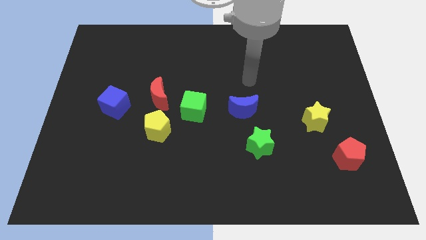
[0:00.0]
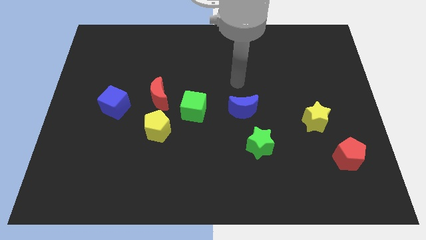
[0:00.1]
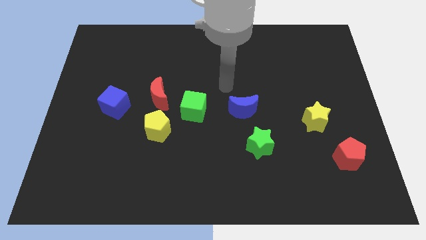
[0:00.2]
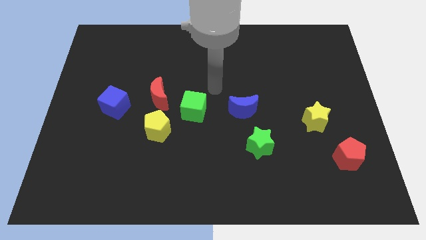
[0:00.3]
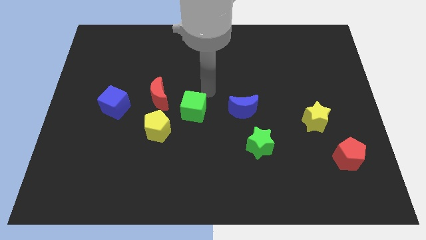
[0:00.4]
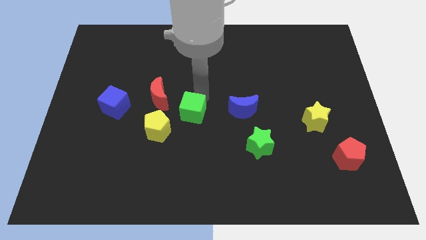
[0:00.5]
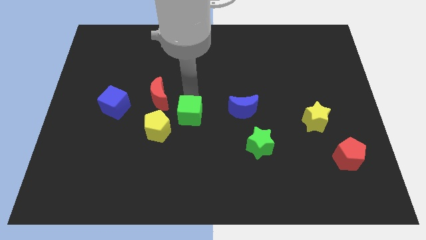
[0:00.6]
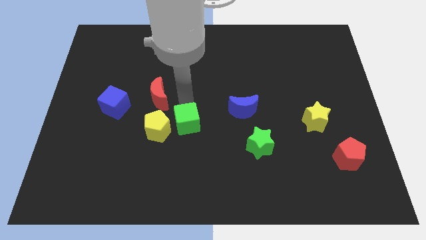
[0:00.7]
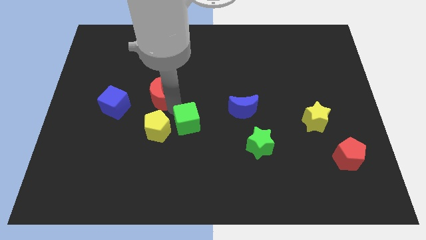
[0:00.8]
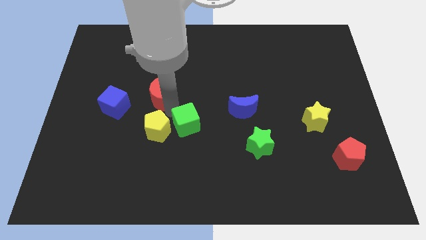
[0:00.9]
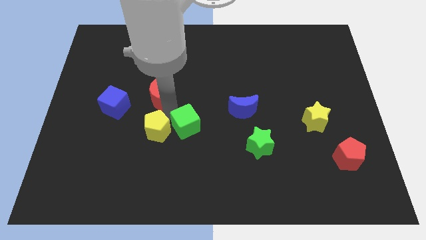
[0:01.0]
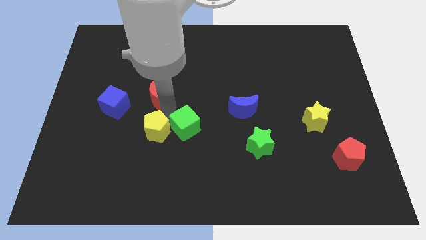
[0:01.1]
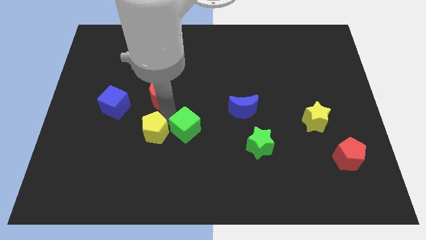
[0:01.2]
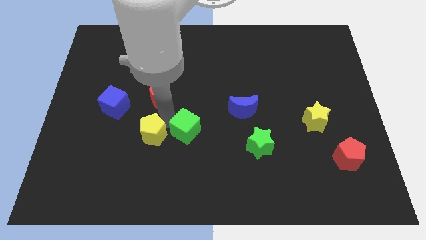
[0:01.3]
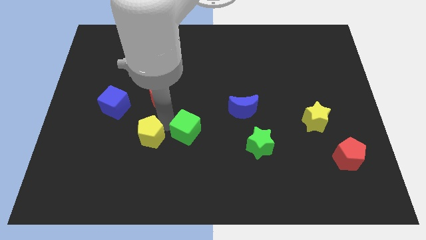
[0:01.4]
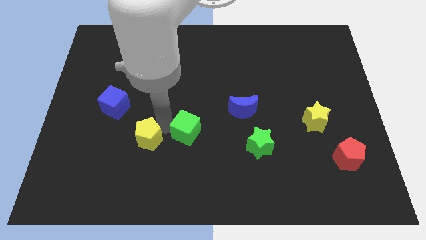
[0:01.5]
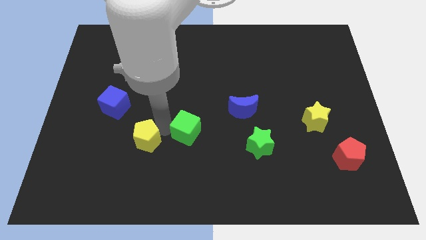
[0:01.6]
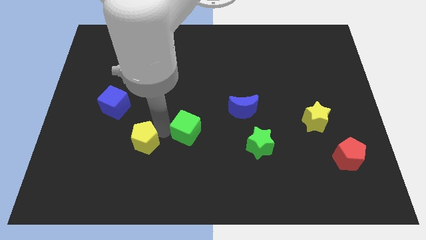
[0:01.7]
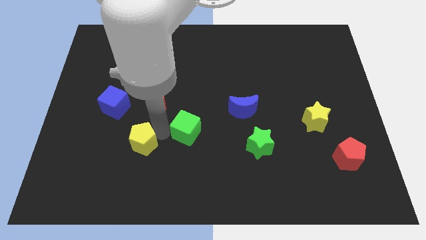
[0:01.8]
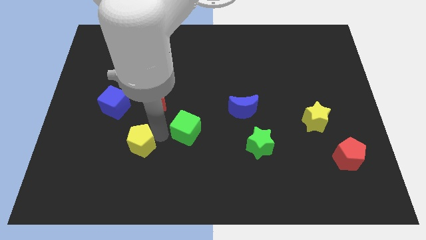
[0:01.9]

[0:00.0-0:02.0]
move the yellow pentagon away from the red moon and green cube

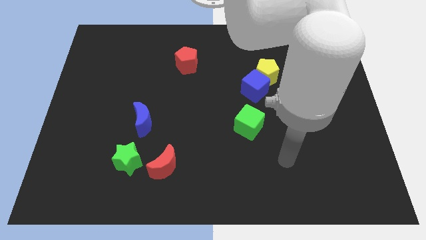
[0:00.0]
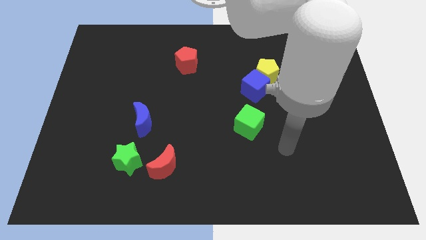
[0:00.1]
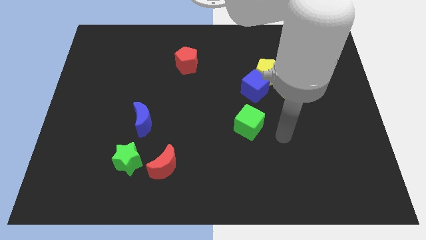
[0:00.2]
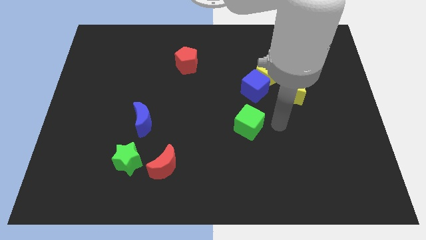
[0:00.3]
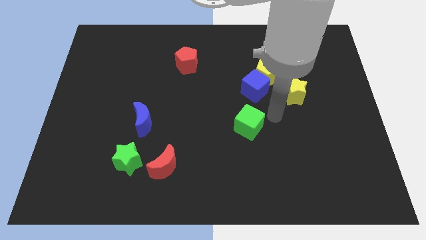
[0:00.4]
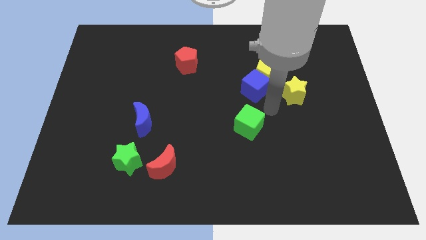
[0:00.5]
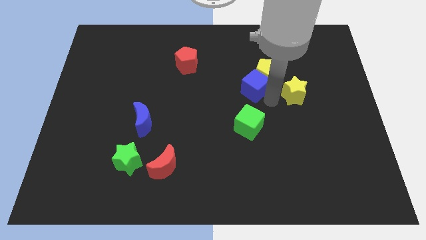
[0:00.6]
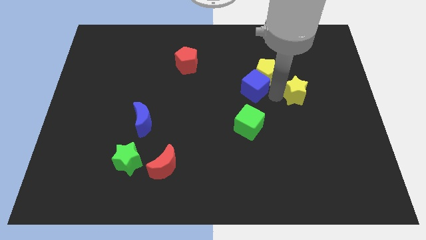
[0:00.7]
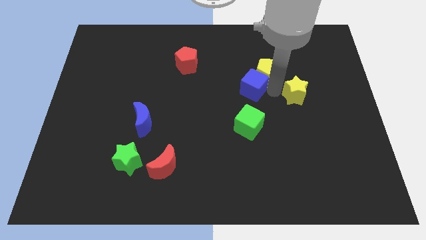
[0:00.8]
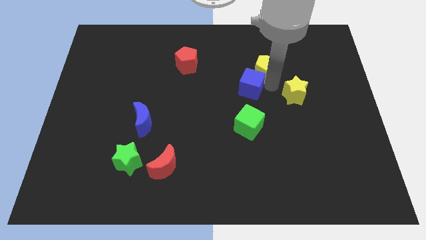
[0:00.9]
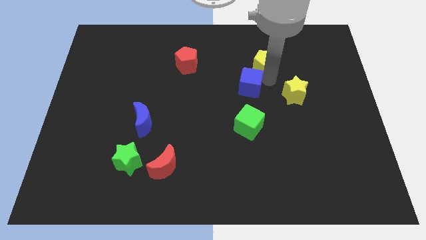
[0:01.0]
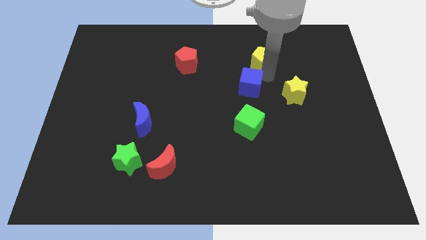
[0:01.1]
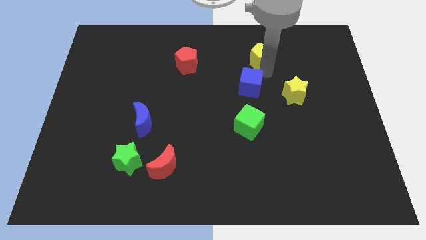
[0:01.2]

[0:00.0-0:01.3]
move the yellow pentagon away from the blue cube and yellow star

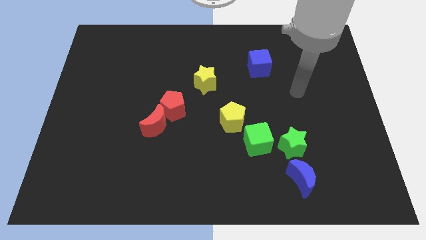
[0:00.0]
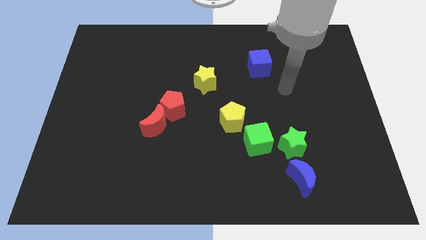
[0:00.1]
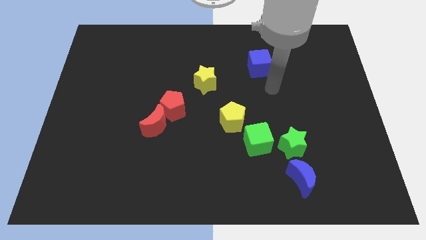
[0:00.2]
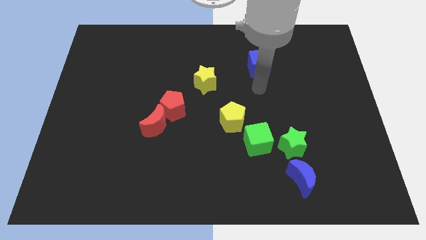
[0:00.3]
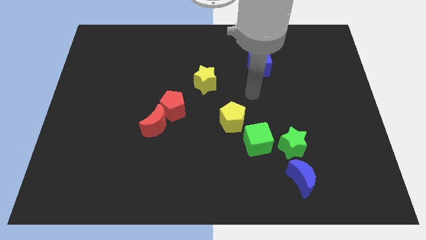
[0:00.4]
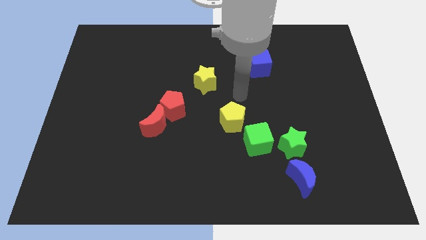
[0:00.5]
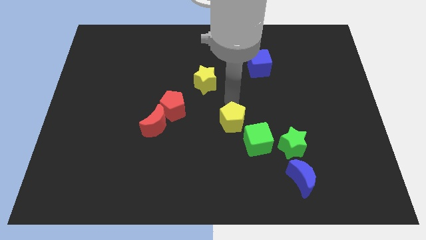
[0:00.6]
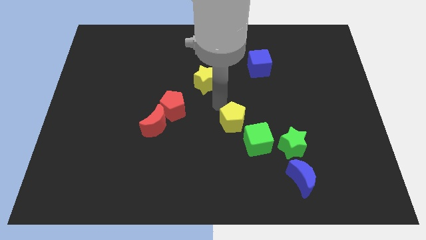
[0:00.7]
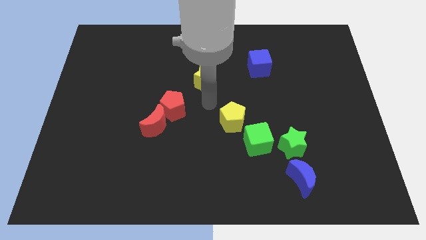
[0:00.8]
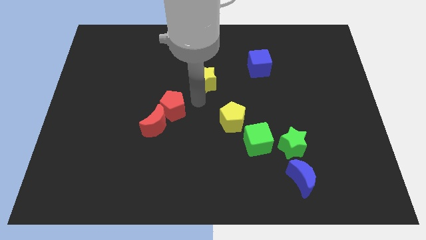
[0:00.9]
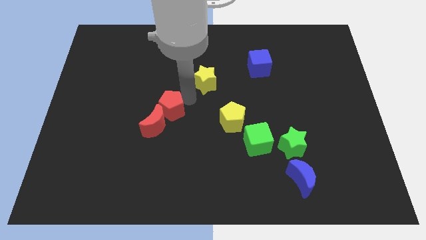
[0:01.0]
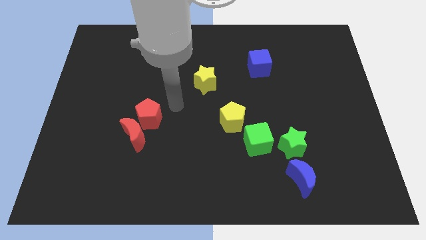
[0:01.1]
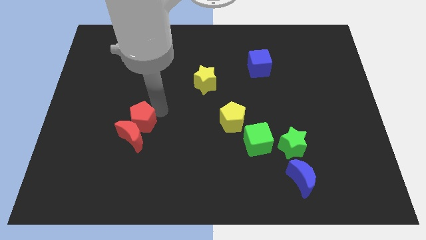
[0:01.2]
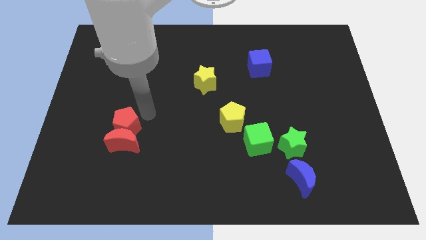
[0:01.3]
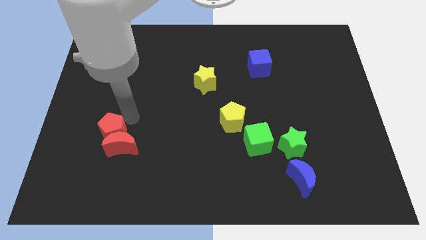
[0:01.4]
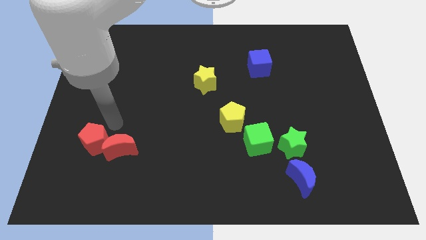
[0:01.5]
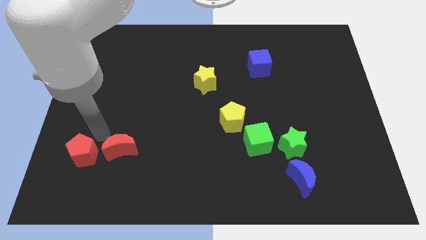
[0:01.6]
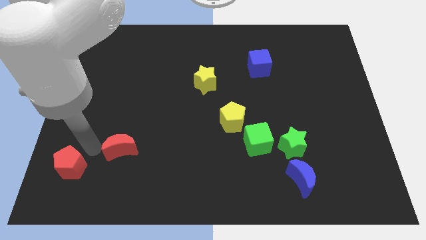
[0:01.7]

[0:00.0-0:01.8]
separate the red moon from the red pentagon

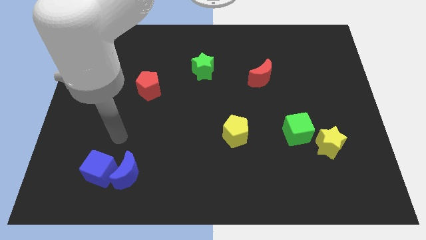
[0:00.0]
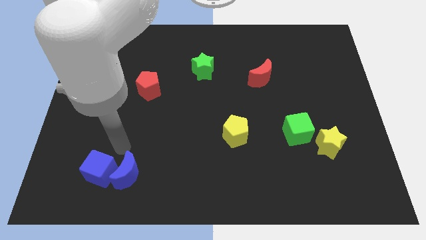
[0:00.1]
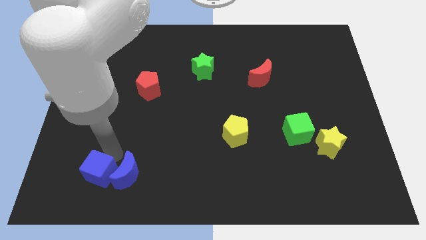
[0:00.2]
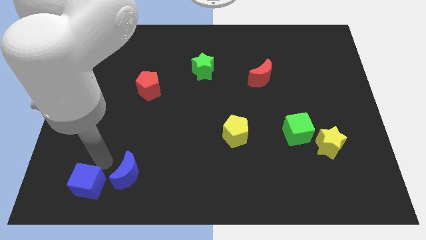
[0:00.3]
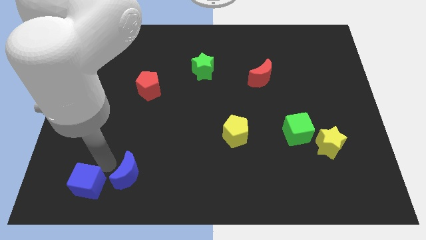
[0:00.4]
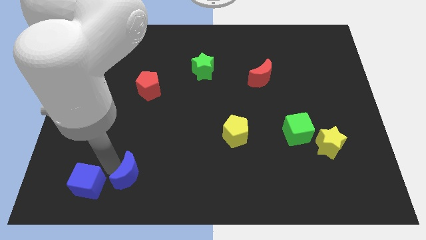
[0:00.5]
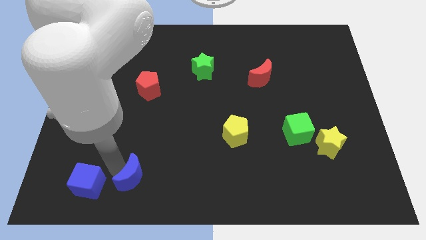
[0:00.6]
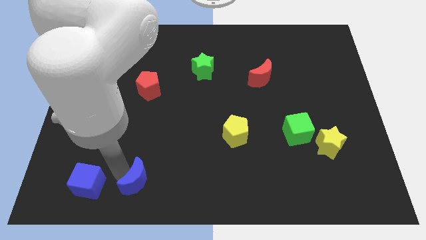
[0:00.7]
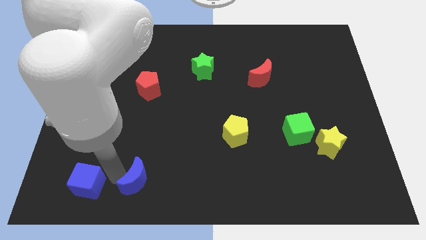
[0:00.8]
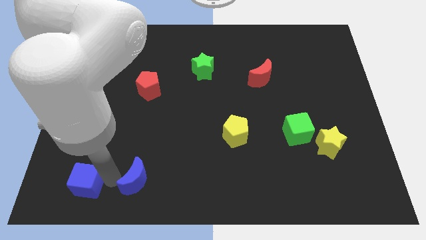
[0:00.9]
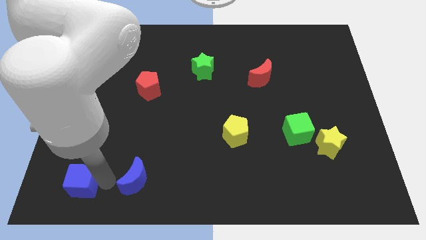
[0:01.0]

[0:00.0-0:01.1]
move the blue moon away from the blue cube

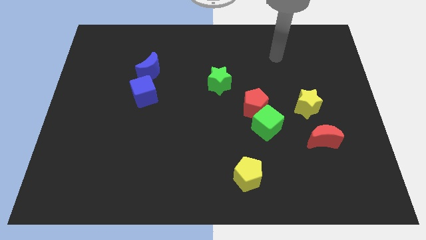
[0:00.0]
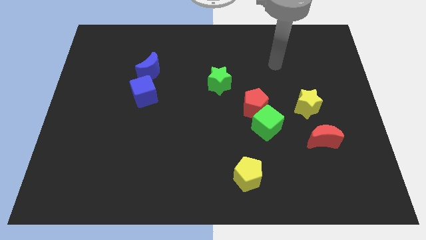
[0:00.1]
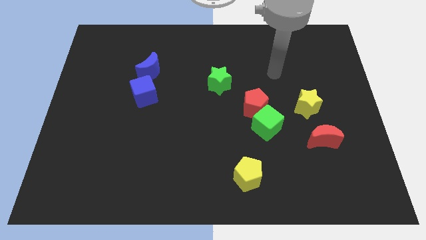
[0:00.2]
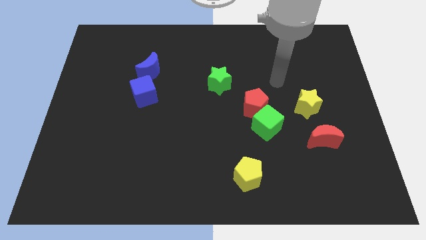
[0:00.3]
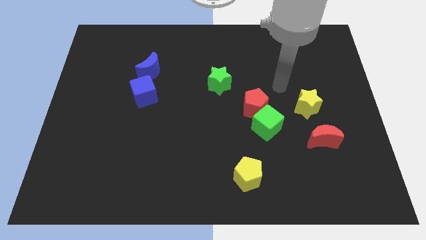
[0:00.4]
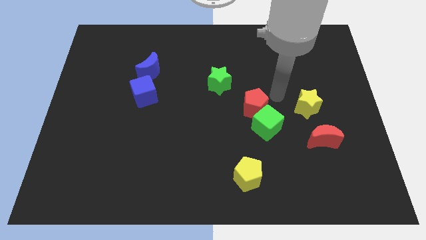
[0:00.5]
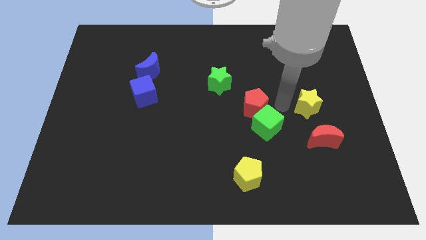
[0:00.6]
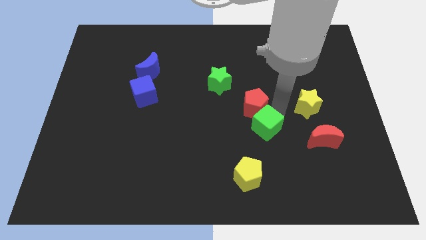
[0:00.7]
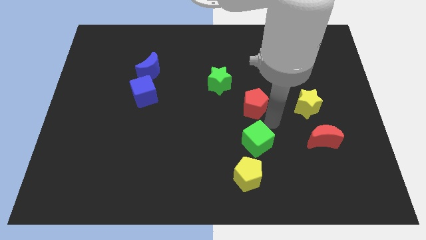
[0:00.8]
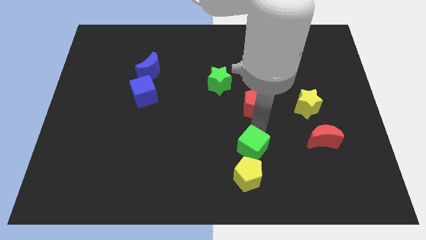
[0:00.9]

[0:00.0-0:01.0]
separate the red pentagon from the green cube

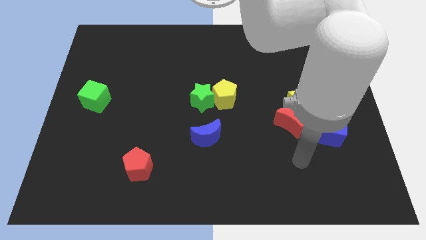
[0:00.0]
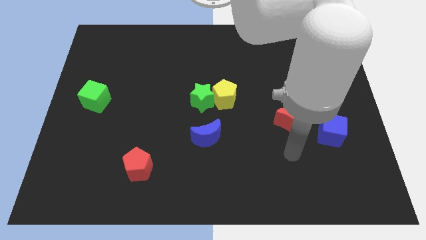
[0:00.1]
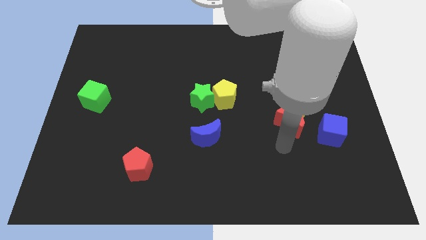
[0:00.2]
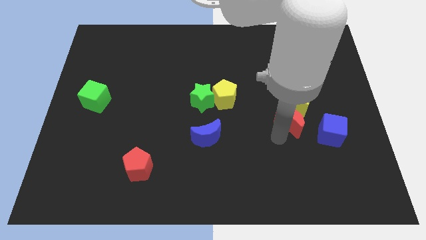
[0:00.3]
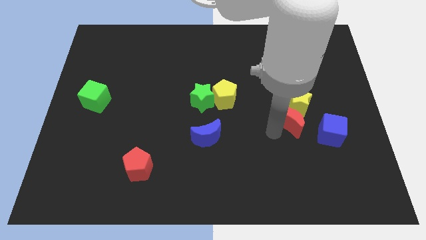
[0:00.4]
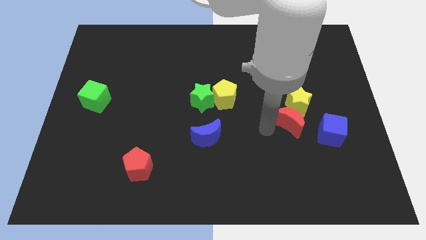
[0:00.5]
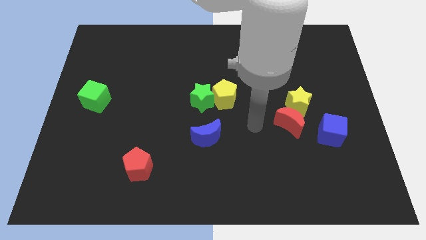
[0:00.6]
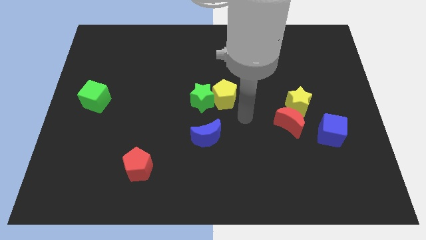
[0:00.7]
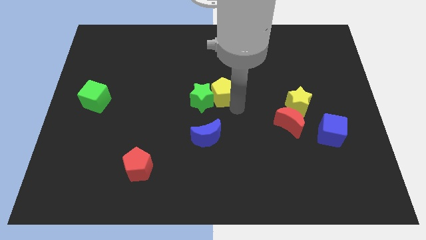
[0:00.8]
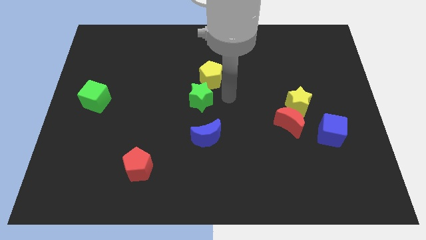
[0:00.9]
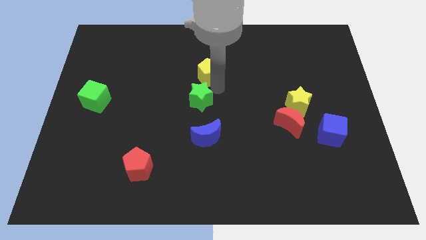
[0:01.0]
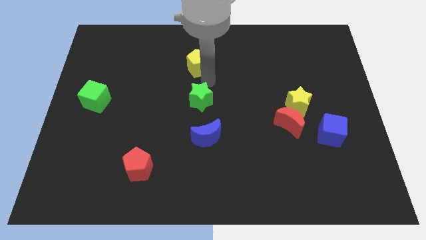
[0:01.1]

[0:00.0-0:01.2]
separate the green star from the yellow pentagon

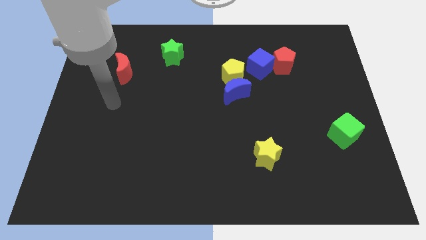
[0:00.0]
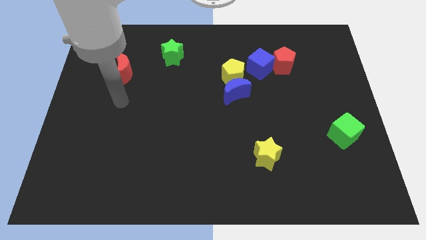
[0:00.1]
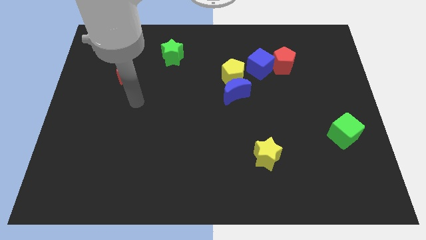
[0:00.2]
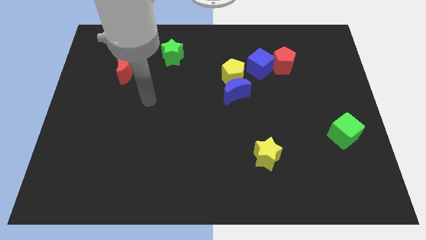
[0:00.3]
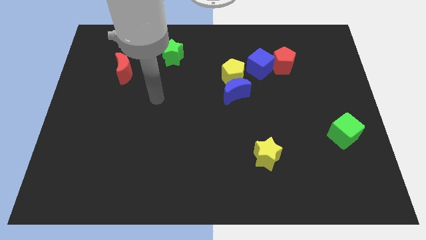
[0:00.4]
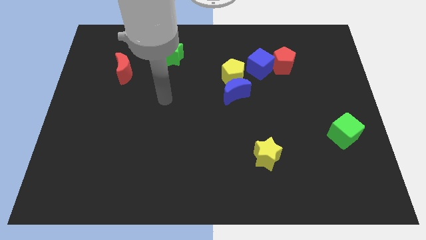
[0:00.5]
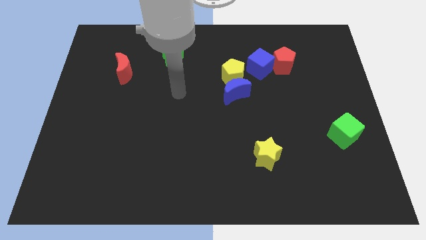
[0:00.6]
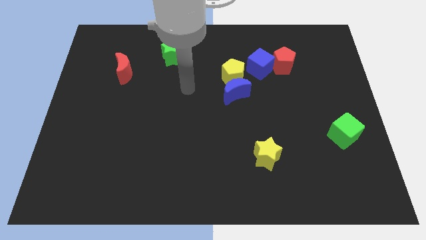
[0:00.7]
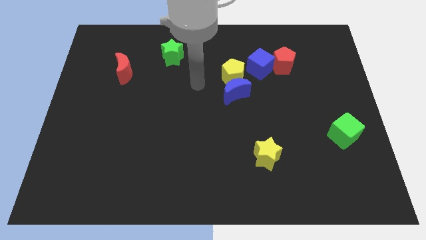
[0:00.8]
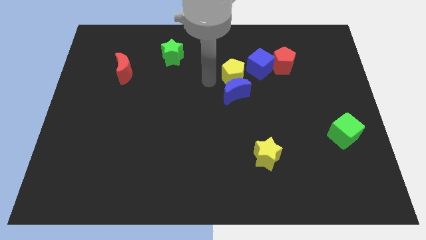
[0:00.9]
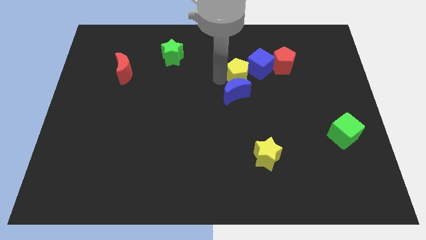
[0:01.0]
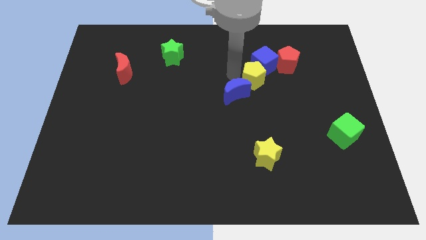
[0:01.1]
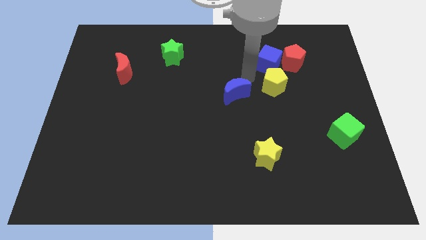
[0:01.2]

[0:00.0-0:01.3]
separate the blue moon from the yellow pentagon
